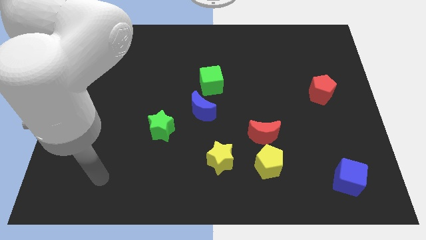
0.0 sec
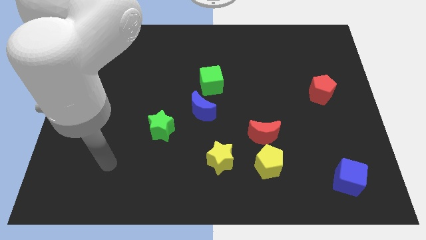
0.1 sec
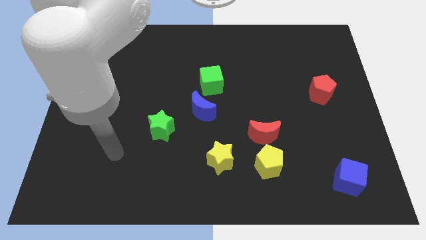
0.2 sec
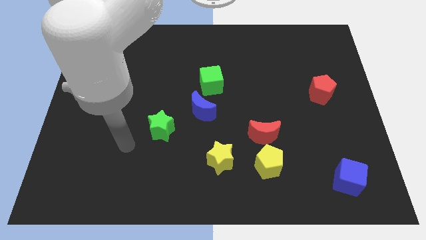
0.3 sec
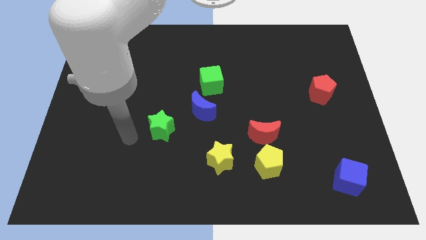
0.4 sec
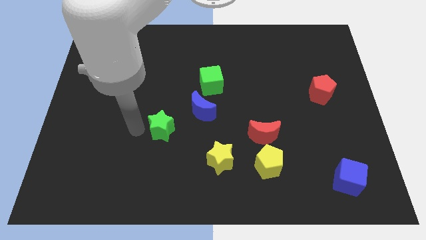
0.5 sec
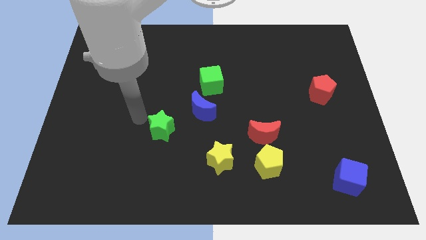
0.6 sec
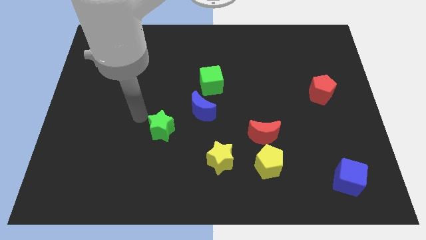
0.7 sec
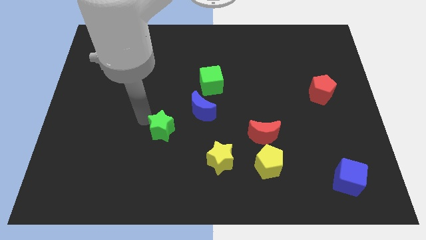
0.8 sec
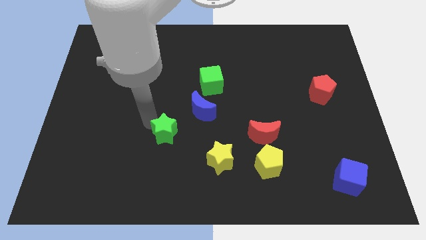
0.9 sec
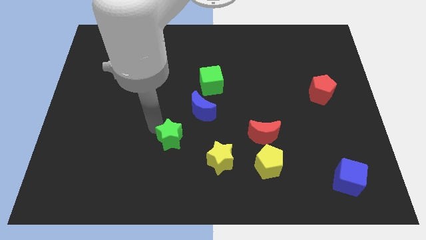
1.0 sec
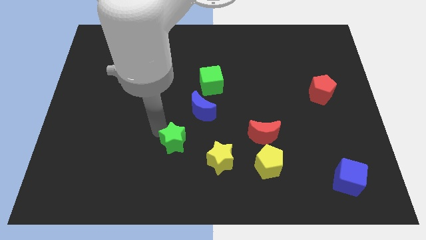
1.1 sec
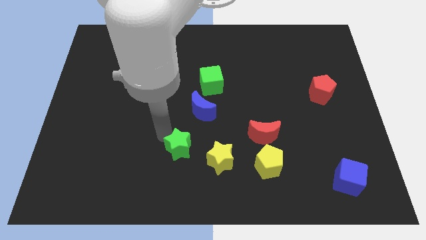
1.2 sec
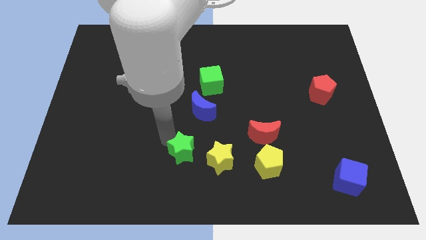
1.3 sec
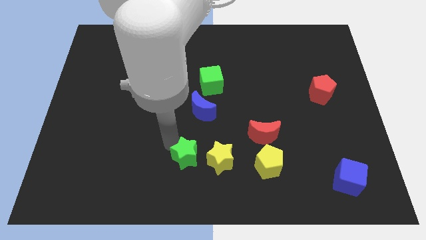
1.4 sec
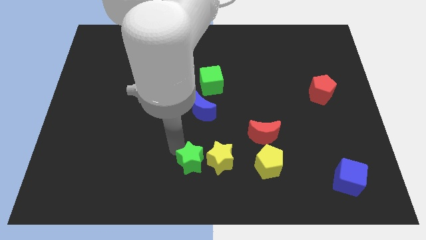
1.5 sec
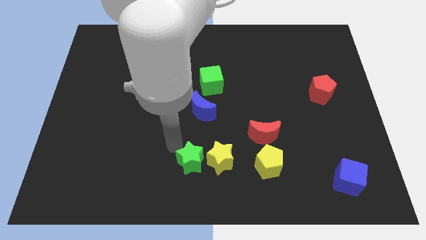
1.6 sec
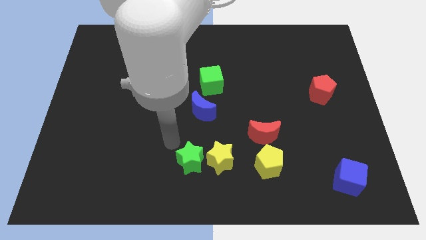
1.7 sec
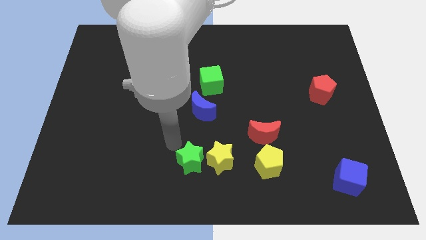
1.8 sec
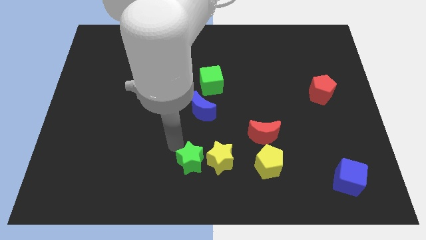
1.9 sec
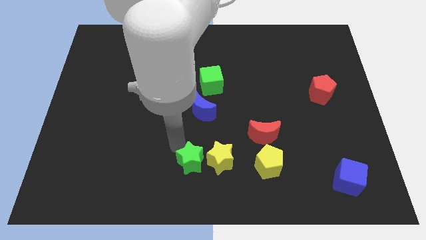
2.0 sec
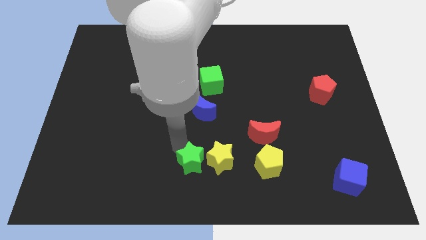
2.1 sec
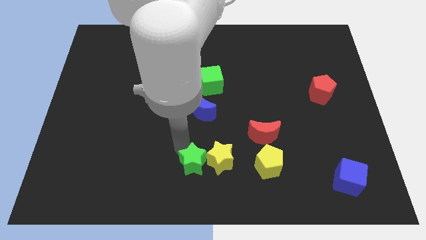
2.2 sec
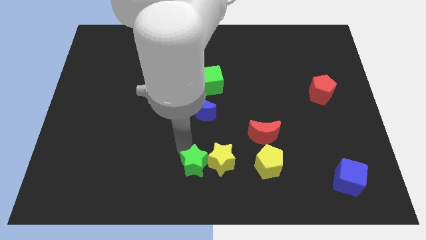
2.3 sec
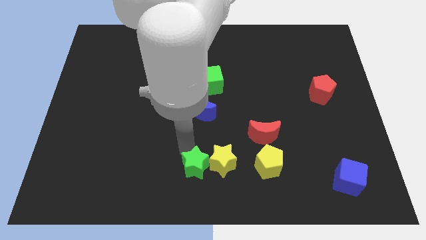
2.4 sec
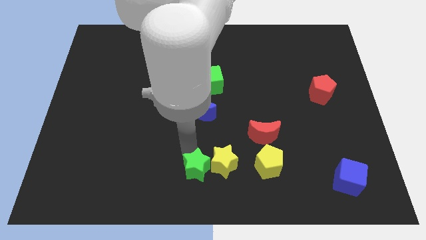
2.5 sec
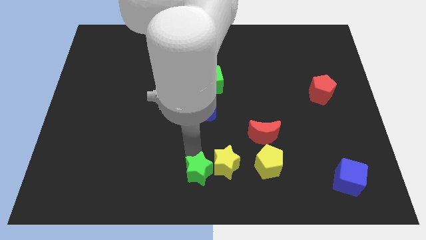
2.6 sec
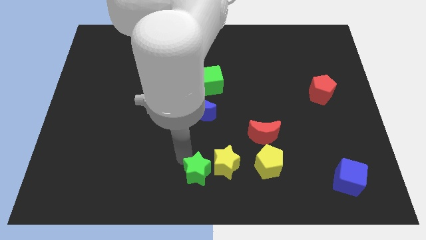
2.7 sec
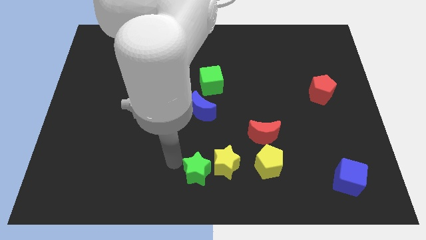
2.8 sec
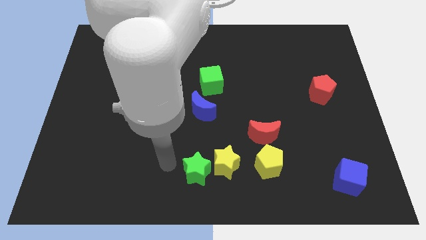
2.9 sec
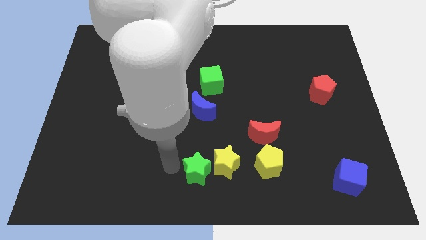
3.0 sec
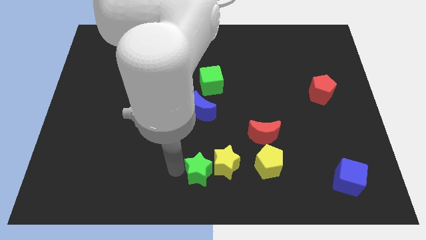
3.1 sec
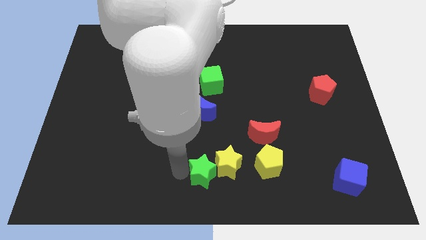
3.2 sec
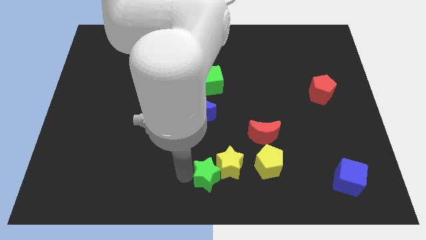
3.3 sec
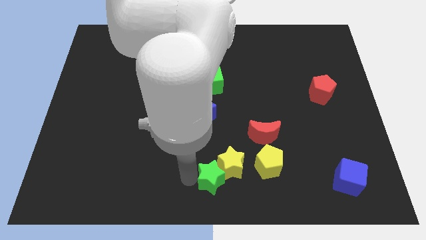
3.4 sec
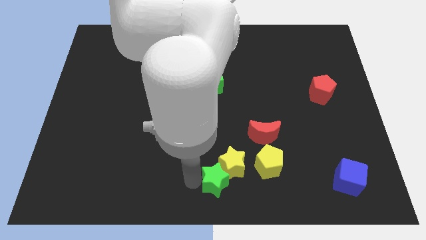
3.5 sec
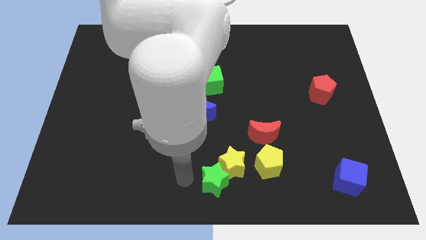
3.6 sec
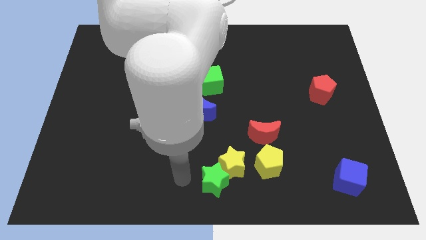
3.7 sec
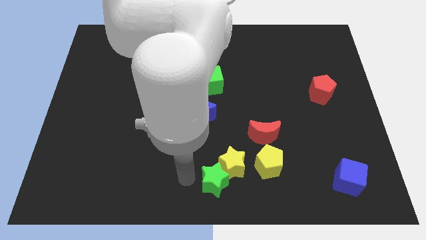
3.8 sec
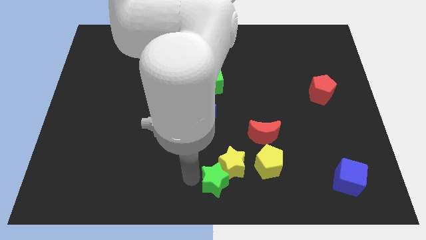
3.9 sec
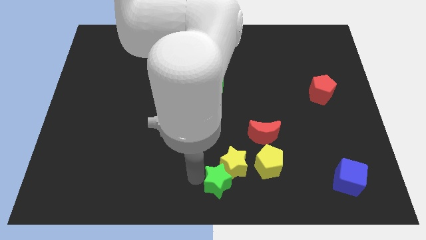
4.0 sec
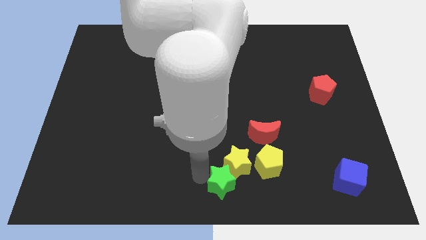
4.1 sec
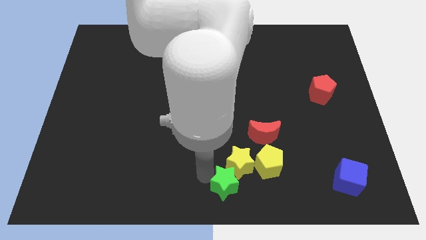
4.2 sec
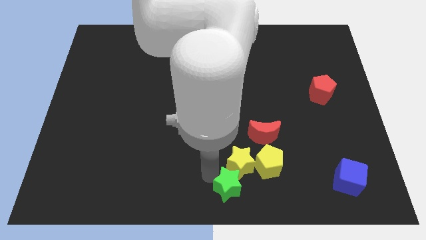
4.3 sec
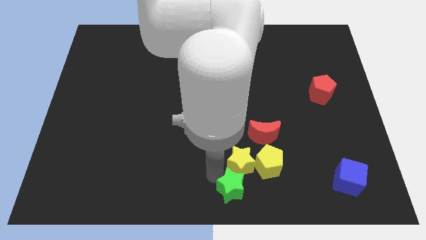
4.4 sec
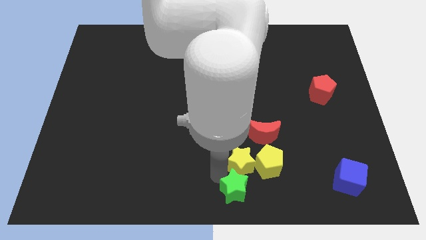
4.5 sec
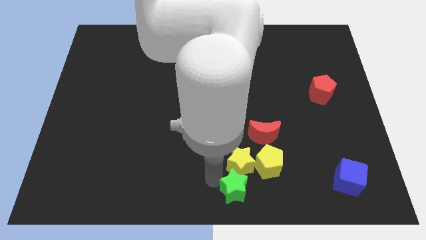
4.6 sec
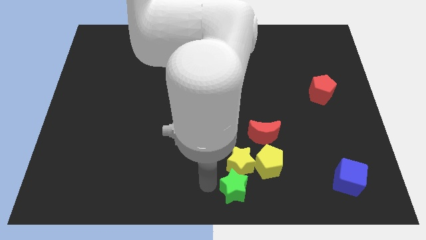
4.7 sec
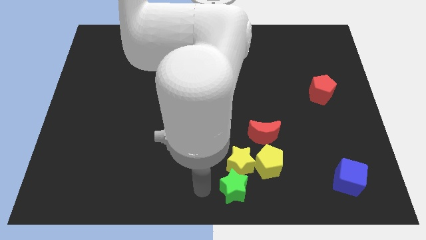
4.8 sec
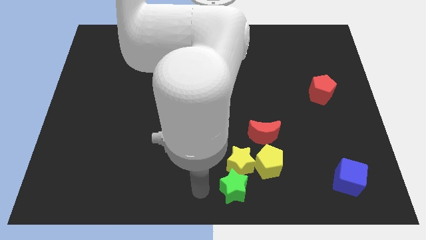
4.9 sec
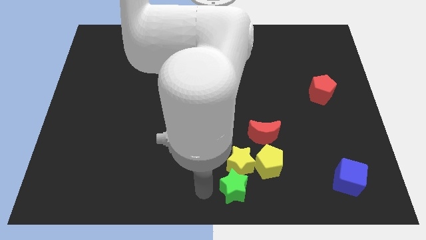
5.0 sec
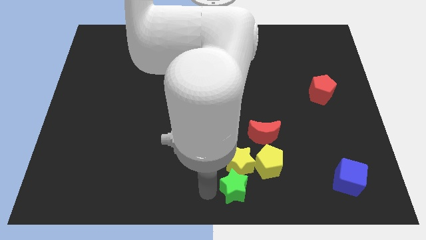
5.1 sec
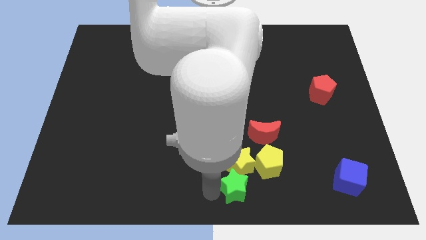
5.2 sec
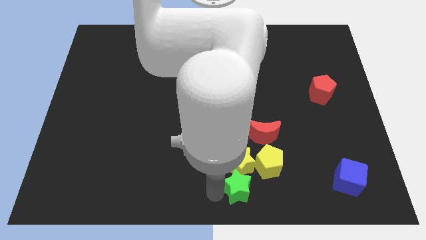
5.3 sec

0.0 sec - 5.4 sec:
move the green star to the bottom right of the yellow star
